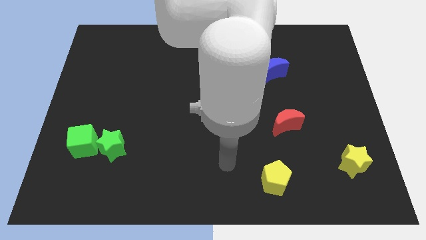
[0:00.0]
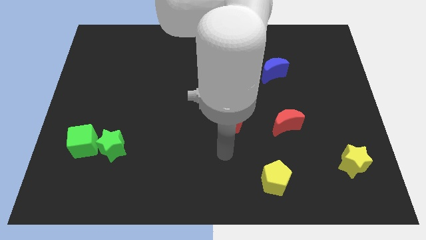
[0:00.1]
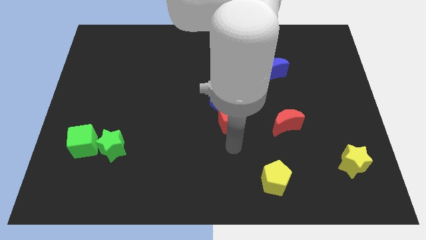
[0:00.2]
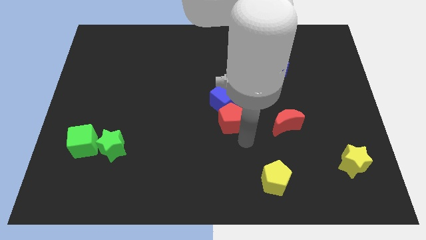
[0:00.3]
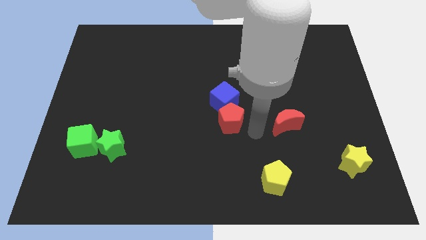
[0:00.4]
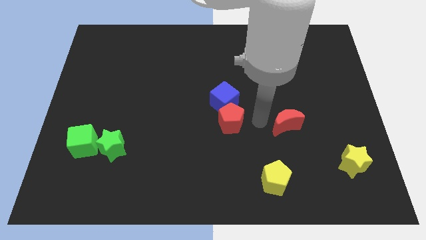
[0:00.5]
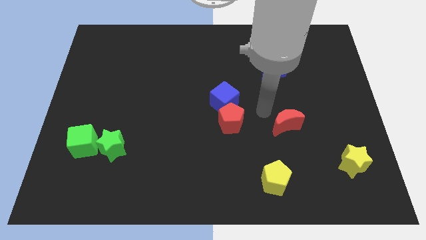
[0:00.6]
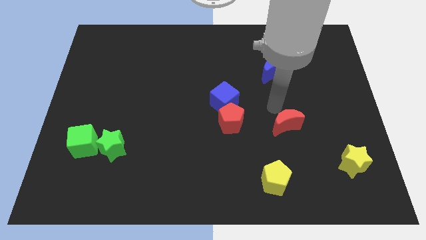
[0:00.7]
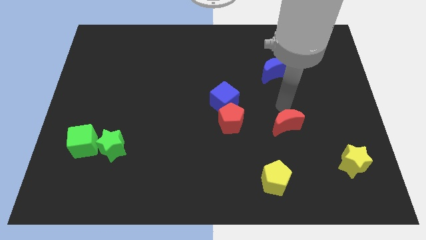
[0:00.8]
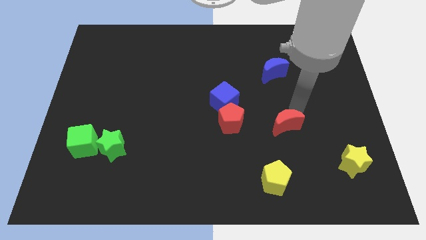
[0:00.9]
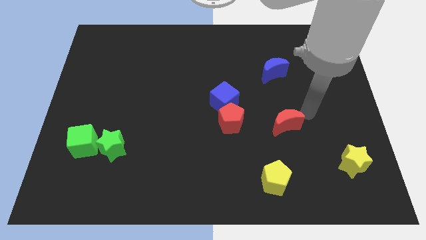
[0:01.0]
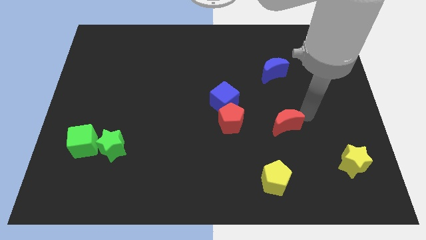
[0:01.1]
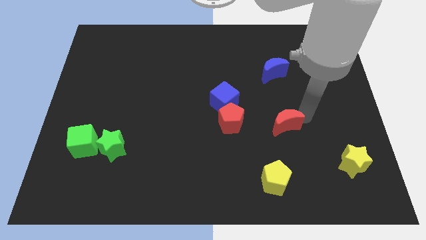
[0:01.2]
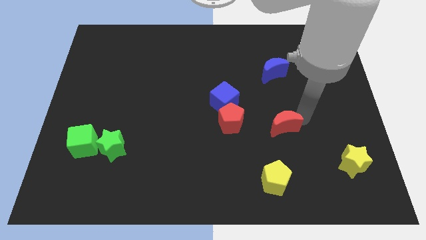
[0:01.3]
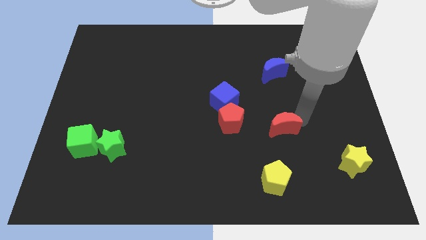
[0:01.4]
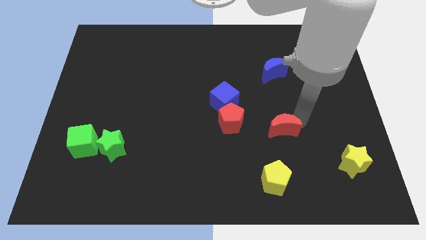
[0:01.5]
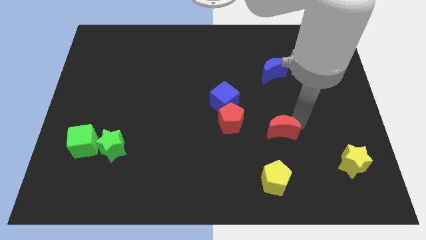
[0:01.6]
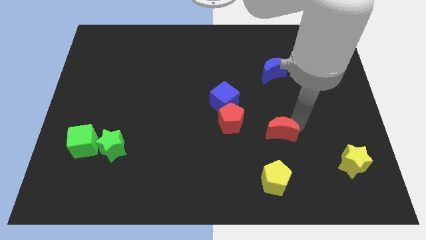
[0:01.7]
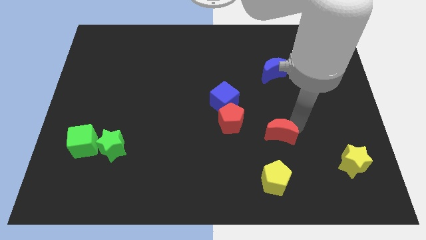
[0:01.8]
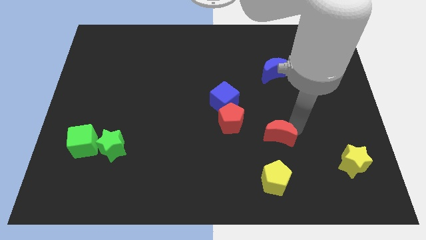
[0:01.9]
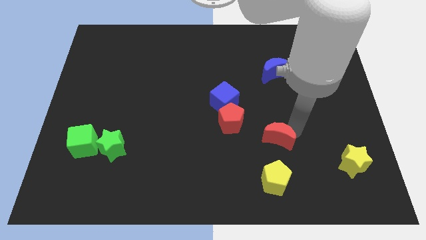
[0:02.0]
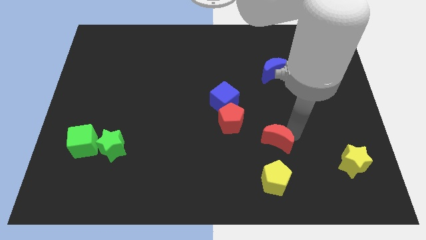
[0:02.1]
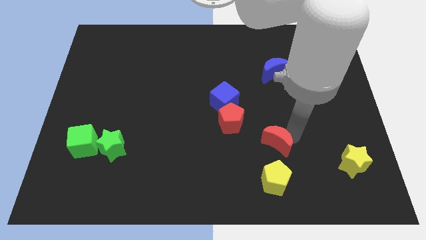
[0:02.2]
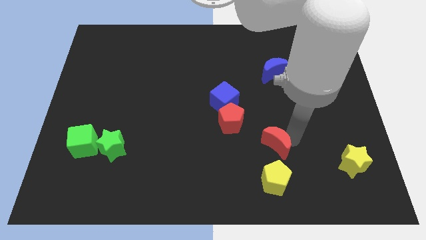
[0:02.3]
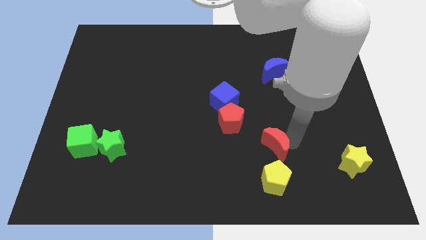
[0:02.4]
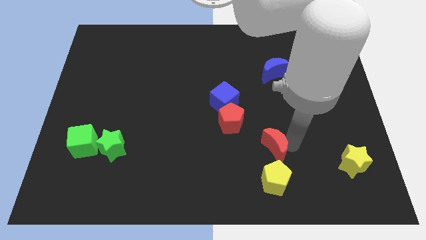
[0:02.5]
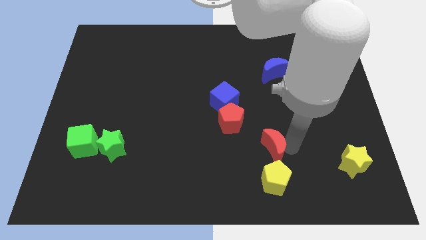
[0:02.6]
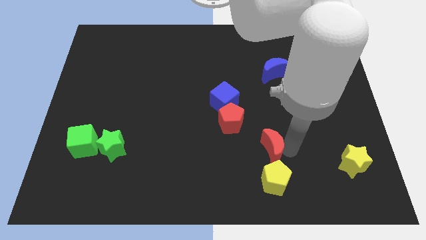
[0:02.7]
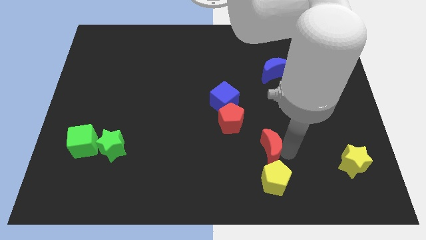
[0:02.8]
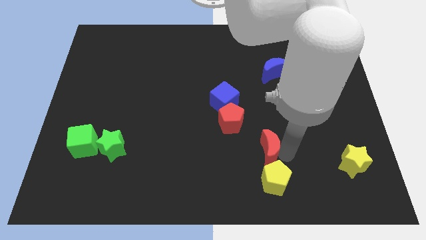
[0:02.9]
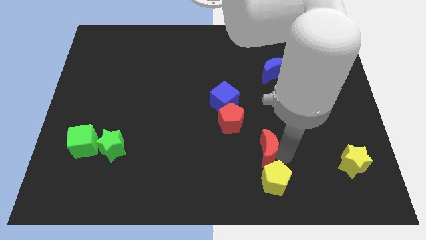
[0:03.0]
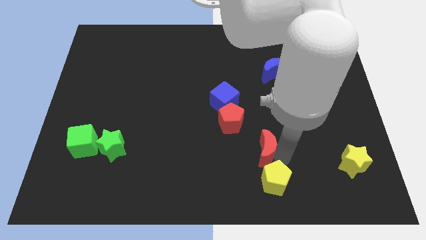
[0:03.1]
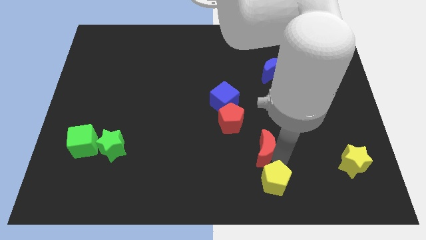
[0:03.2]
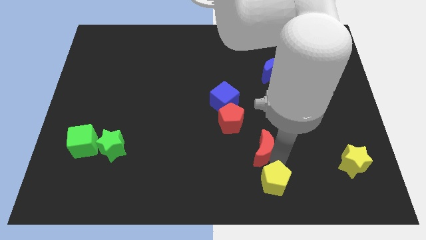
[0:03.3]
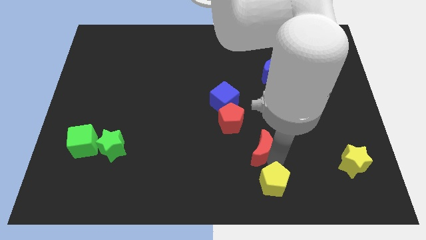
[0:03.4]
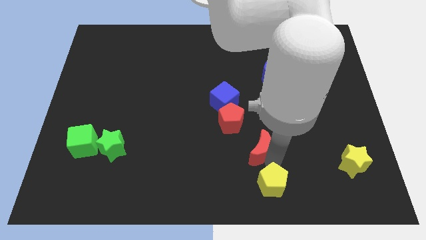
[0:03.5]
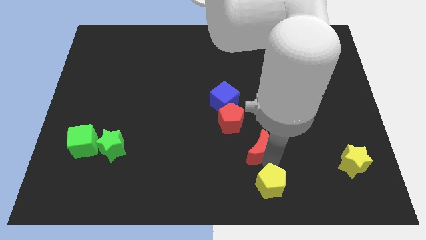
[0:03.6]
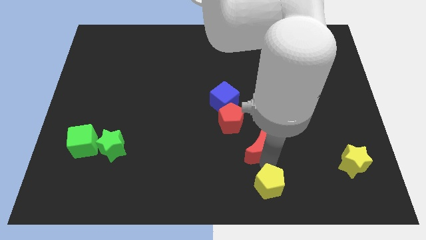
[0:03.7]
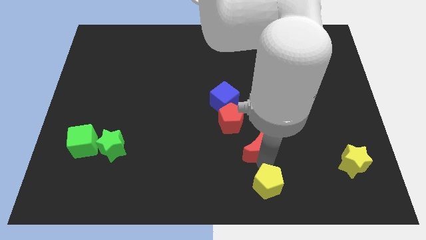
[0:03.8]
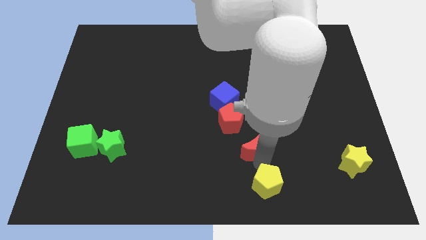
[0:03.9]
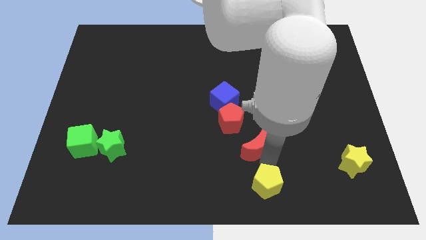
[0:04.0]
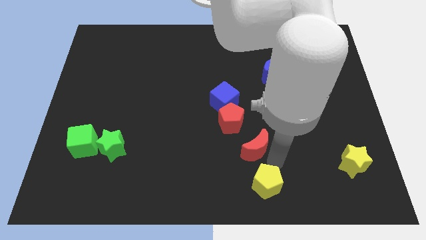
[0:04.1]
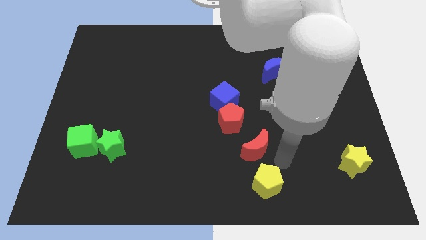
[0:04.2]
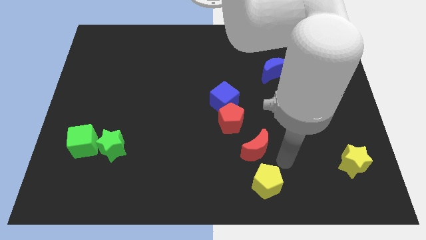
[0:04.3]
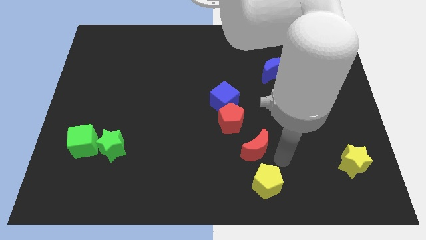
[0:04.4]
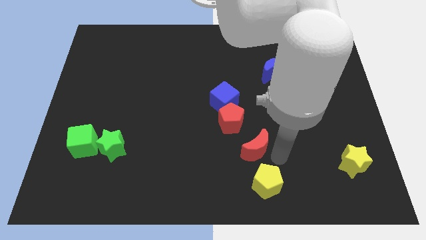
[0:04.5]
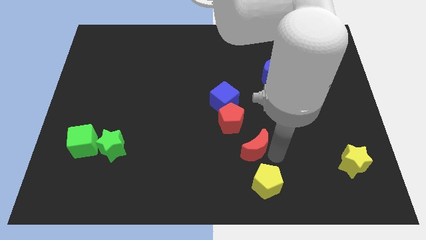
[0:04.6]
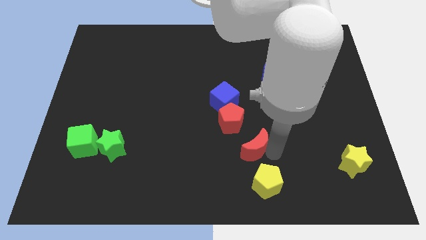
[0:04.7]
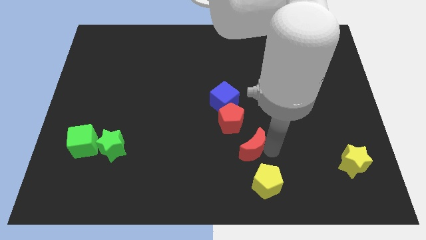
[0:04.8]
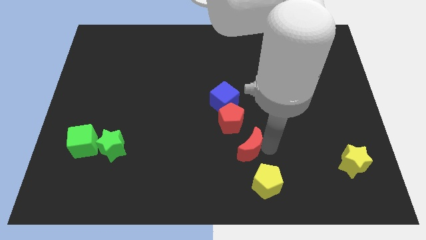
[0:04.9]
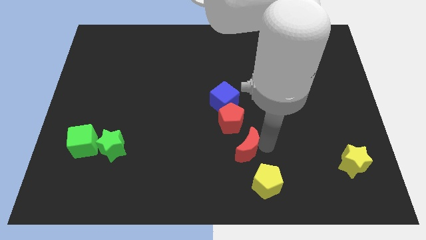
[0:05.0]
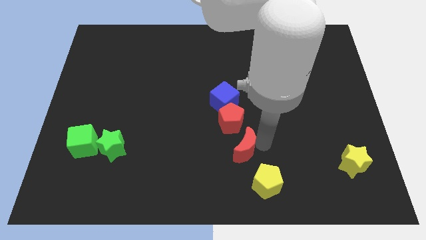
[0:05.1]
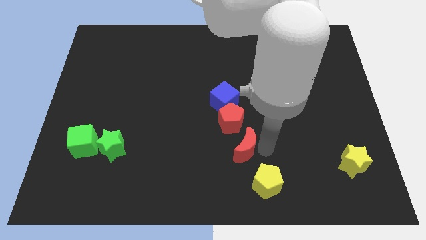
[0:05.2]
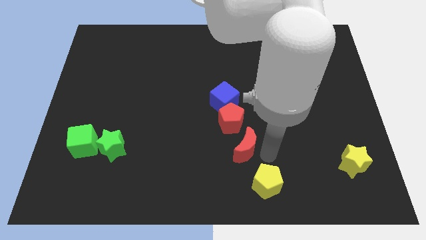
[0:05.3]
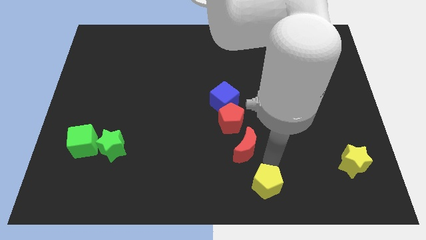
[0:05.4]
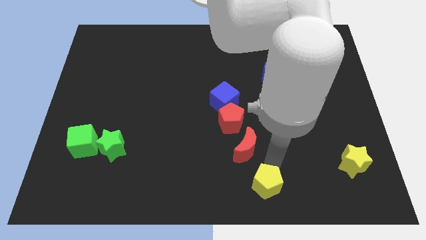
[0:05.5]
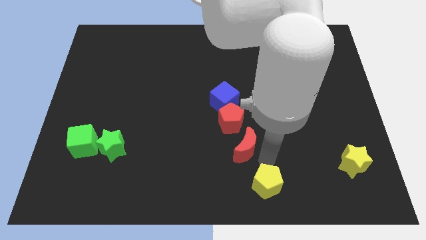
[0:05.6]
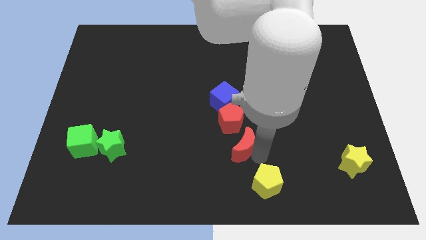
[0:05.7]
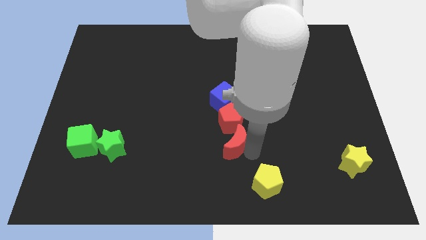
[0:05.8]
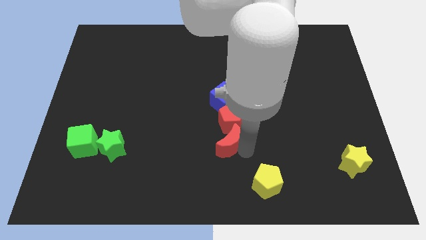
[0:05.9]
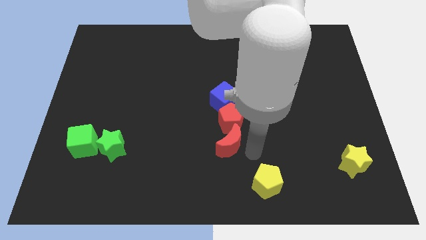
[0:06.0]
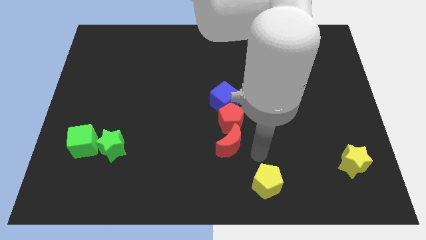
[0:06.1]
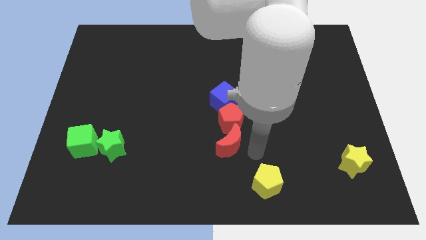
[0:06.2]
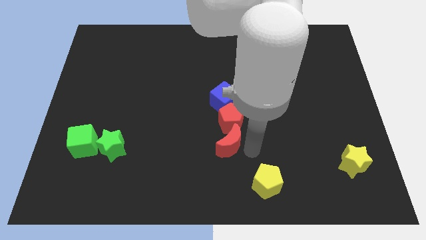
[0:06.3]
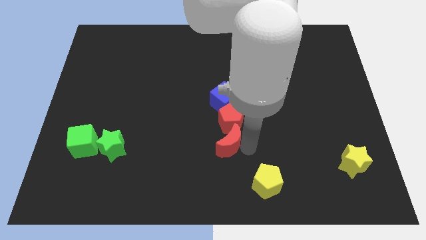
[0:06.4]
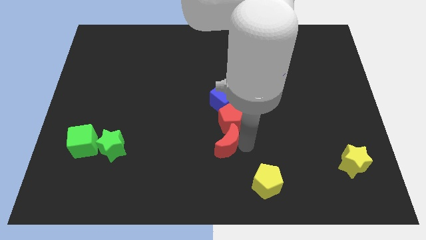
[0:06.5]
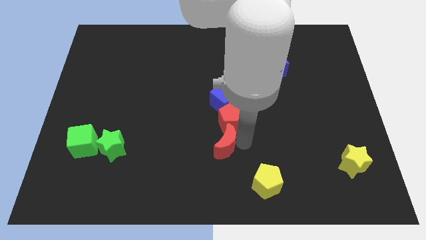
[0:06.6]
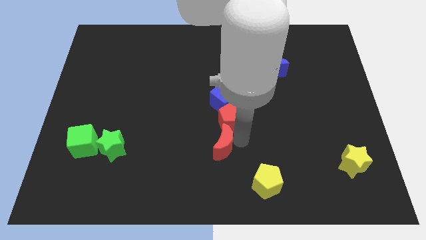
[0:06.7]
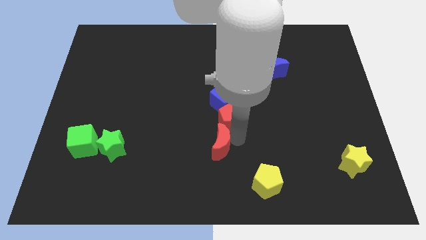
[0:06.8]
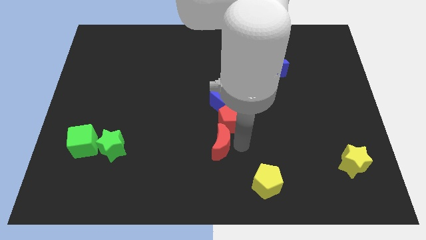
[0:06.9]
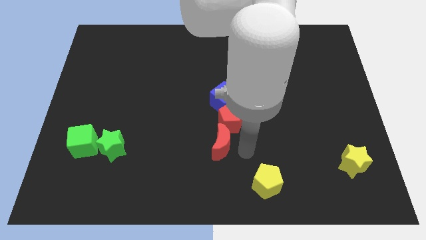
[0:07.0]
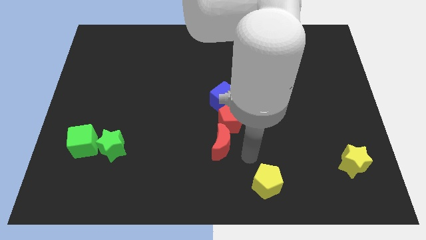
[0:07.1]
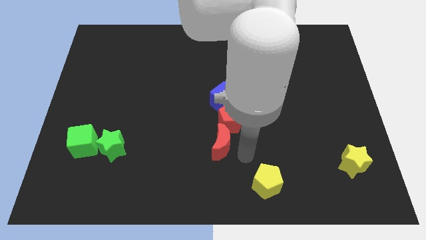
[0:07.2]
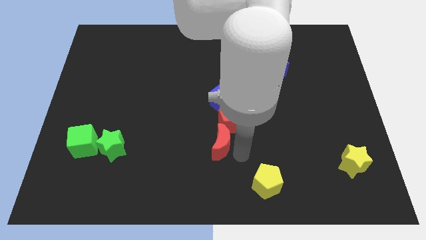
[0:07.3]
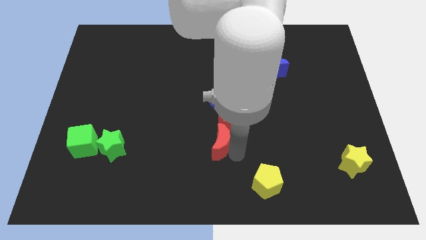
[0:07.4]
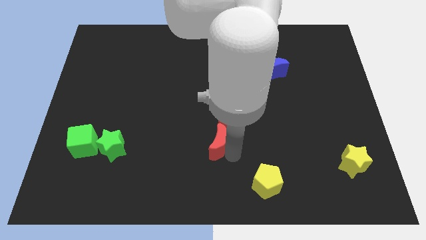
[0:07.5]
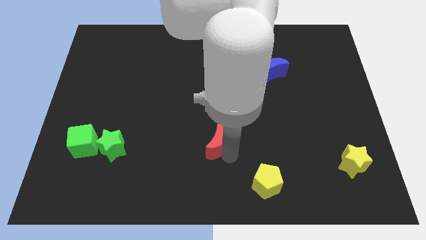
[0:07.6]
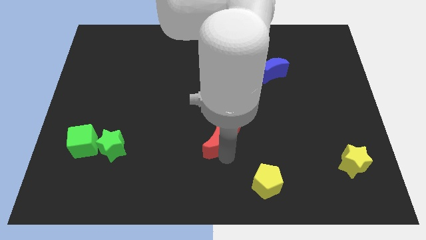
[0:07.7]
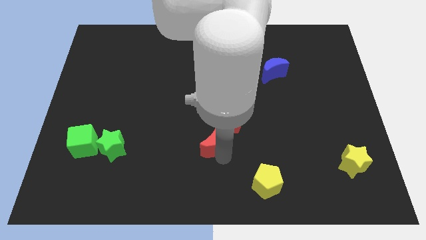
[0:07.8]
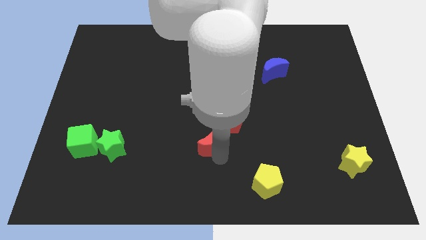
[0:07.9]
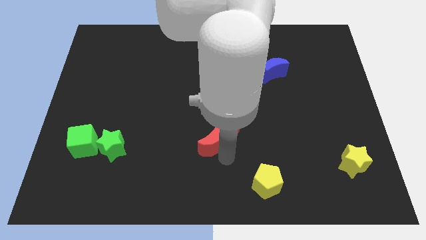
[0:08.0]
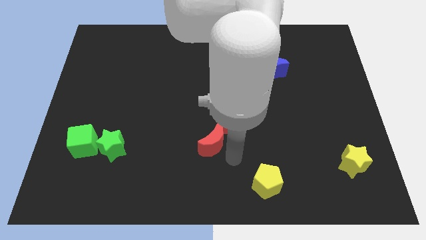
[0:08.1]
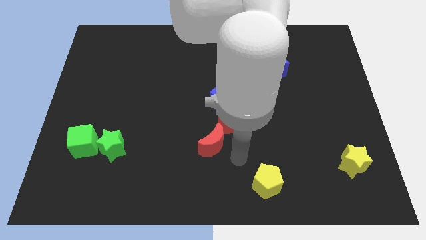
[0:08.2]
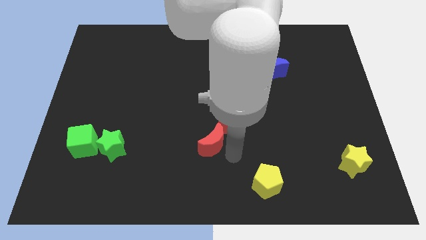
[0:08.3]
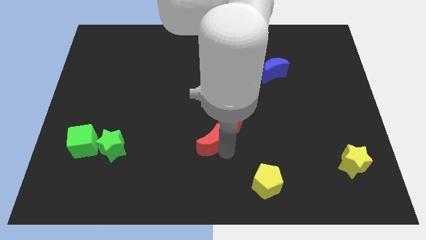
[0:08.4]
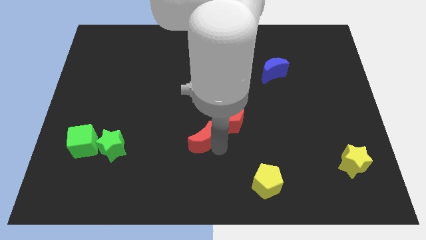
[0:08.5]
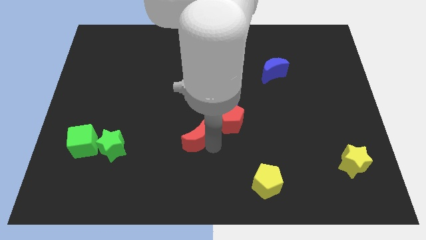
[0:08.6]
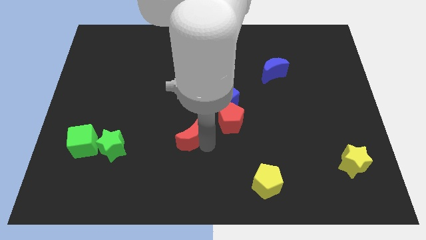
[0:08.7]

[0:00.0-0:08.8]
push the red moon to the left
